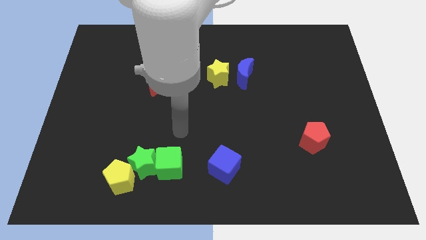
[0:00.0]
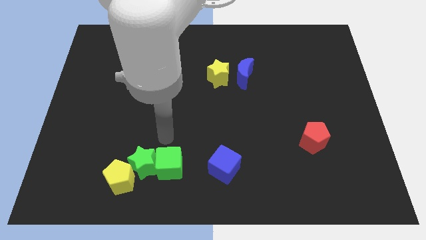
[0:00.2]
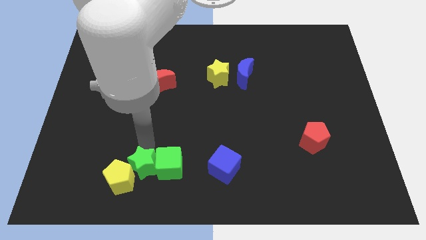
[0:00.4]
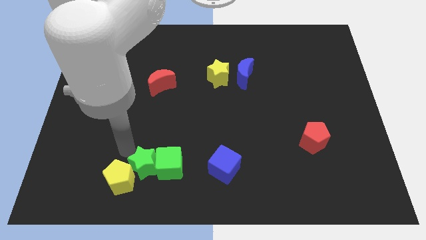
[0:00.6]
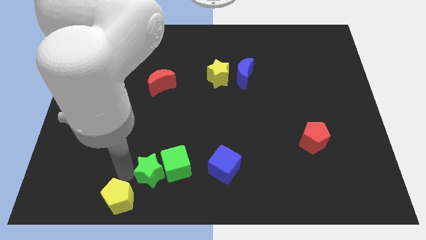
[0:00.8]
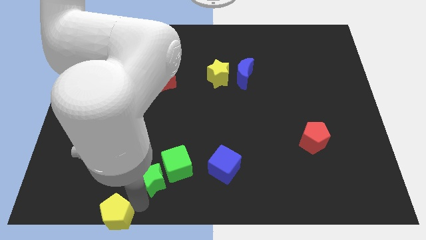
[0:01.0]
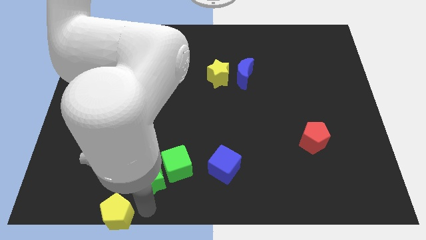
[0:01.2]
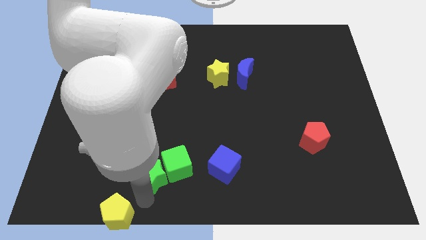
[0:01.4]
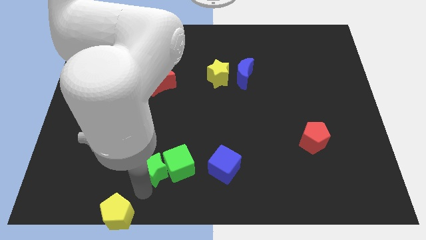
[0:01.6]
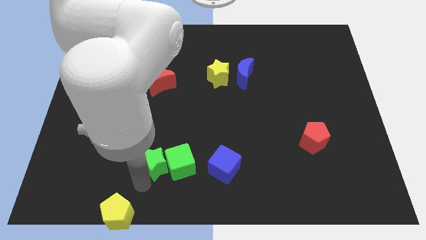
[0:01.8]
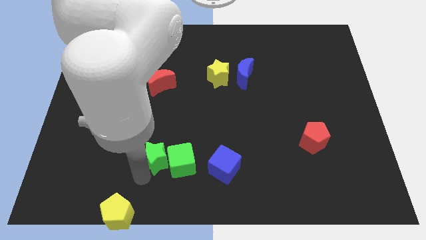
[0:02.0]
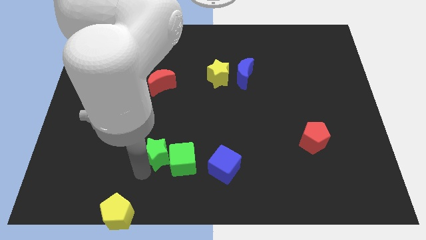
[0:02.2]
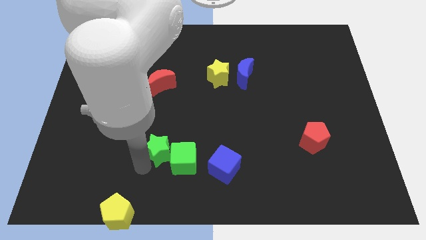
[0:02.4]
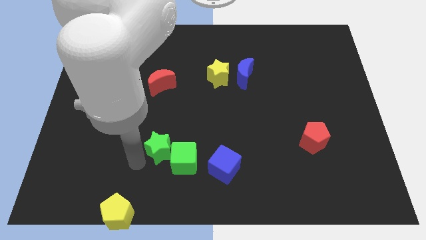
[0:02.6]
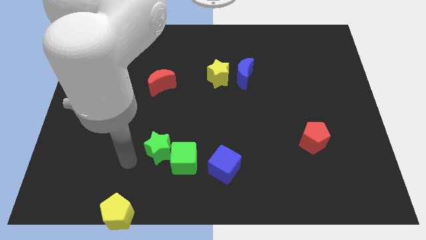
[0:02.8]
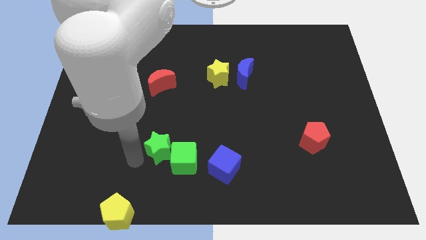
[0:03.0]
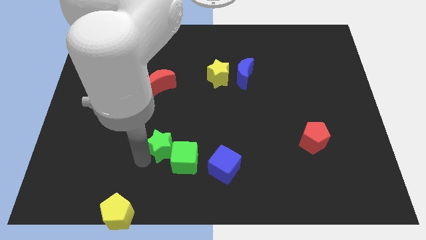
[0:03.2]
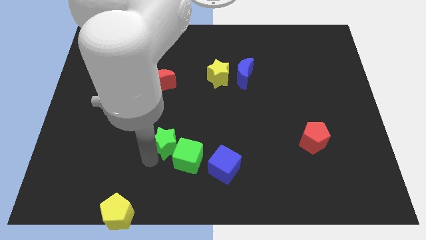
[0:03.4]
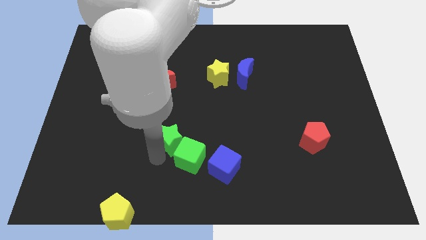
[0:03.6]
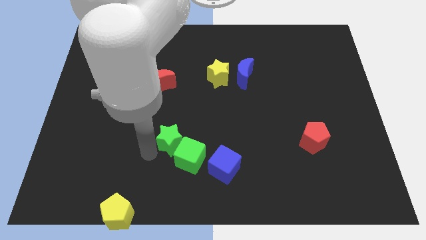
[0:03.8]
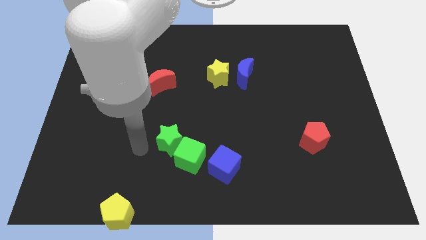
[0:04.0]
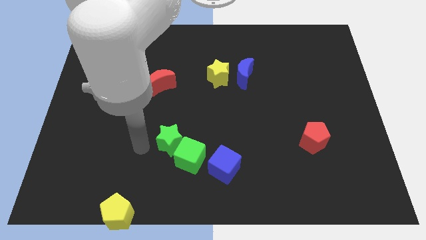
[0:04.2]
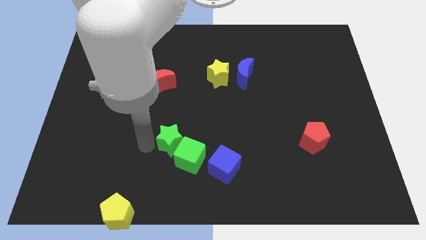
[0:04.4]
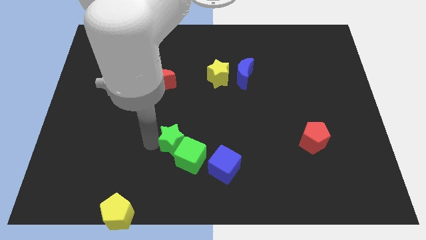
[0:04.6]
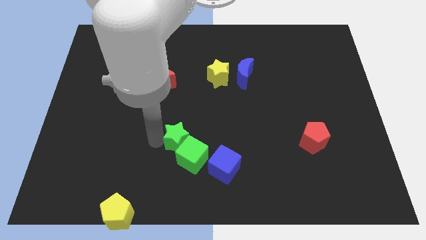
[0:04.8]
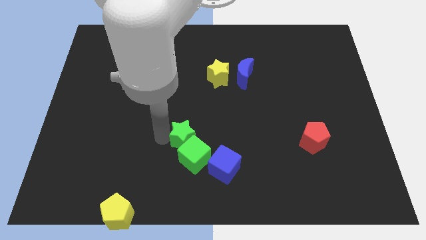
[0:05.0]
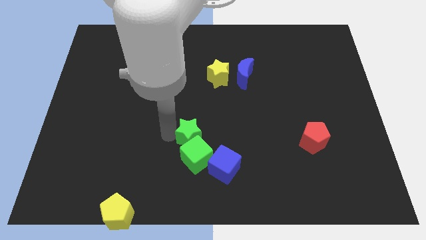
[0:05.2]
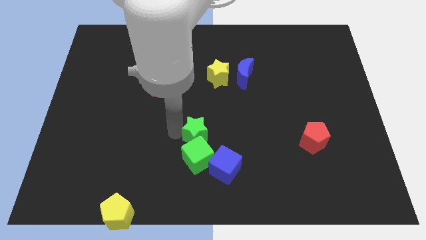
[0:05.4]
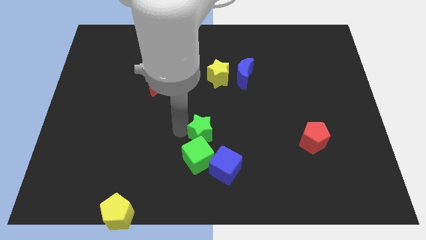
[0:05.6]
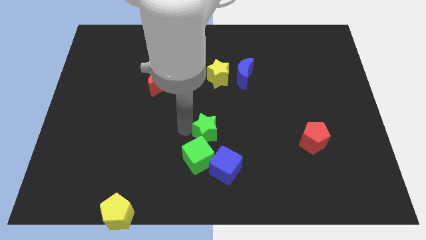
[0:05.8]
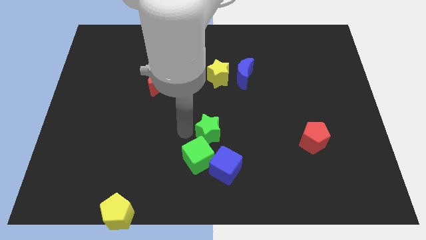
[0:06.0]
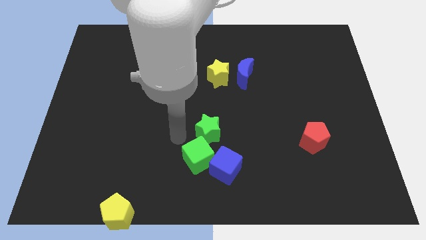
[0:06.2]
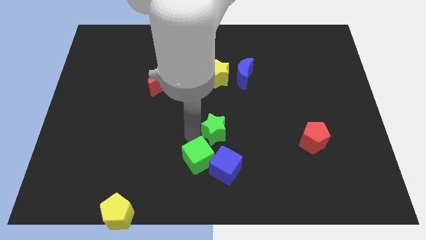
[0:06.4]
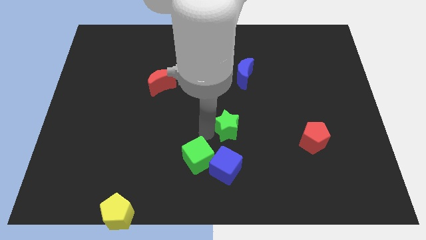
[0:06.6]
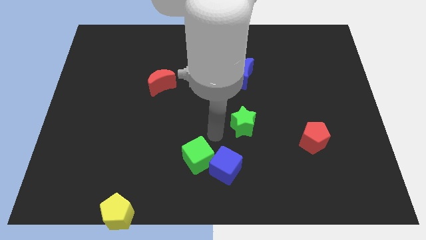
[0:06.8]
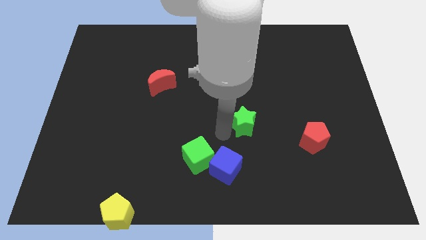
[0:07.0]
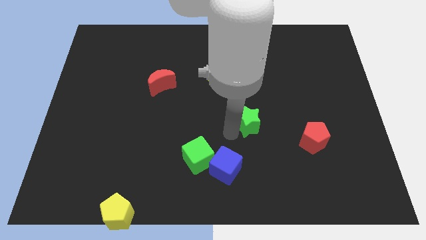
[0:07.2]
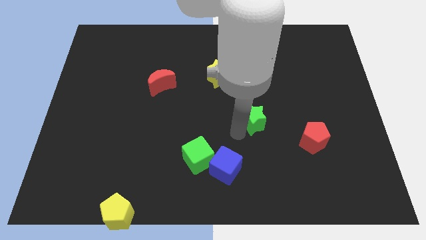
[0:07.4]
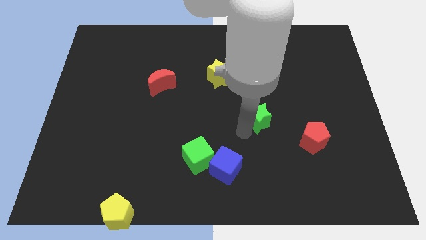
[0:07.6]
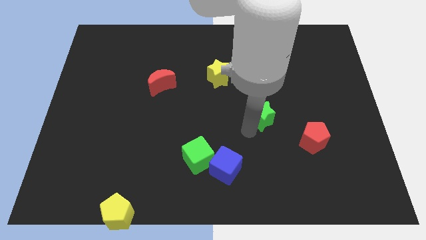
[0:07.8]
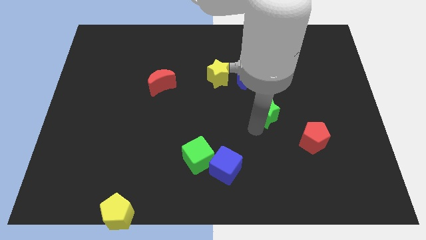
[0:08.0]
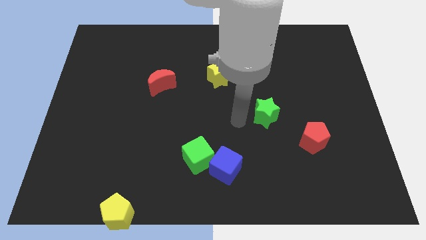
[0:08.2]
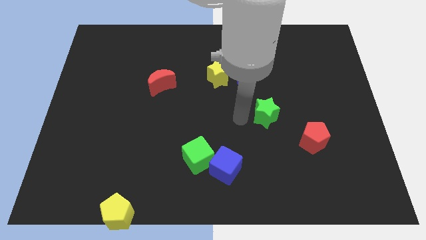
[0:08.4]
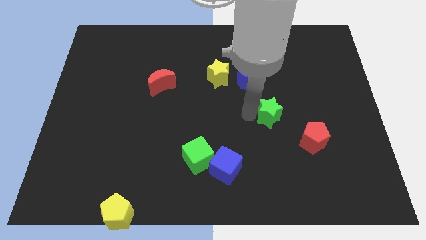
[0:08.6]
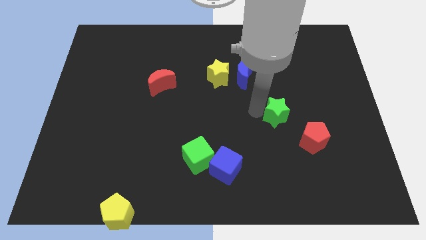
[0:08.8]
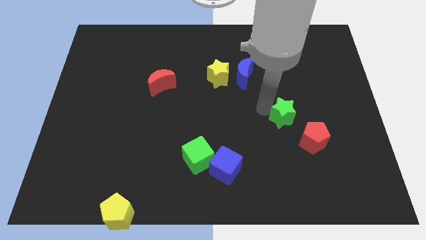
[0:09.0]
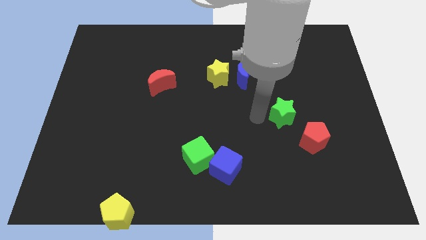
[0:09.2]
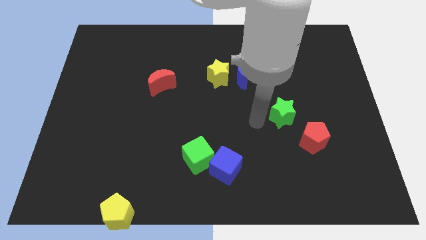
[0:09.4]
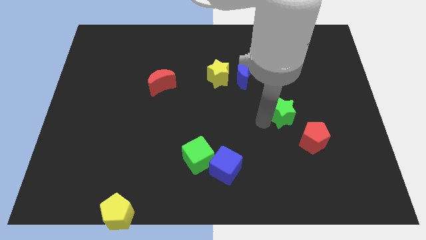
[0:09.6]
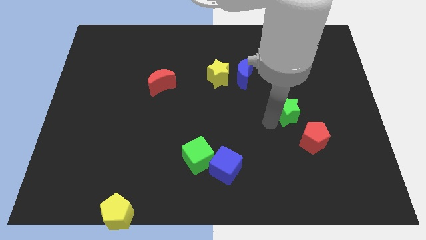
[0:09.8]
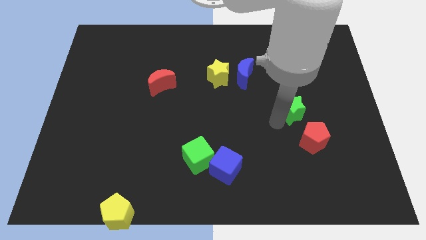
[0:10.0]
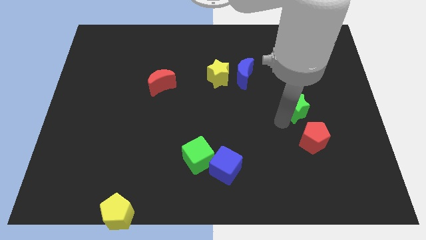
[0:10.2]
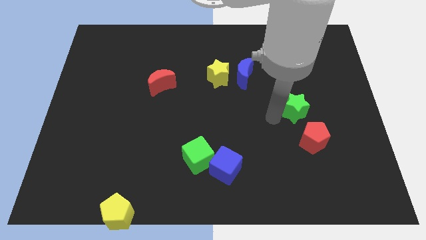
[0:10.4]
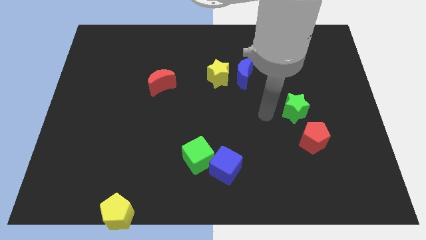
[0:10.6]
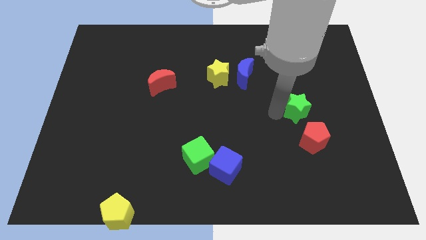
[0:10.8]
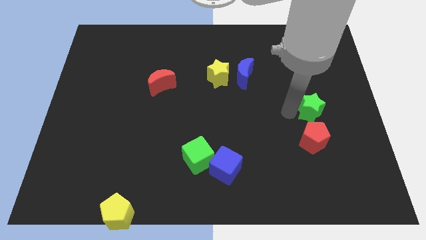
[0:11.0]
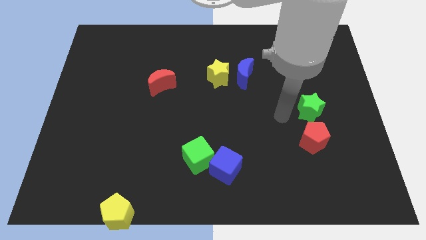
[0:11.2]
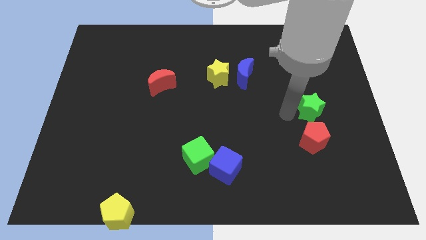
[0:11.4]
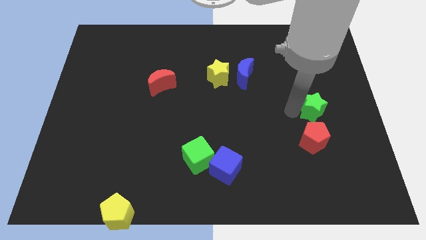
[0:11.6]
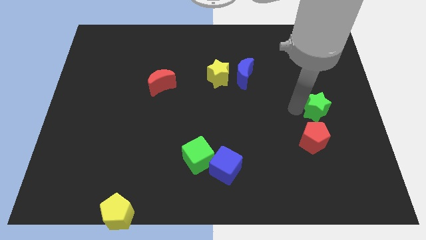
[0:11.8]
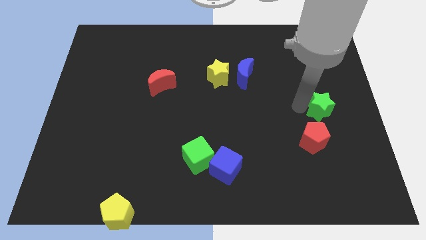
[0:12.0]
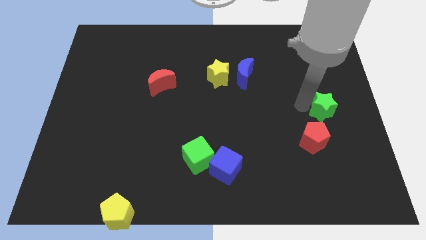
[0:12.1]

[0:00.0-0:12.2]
slide the green star to the right side of the board
